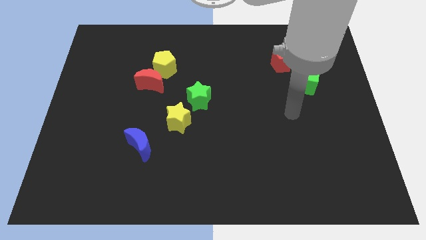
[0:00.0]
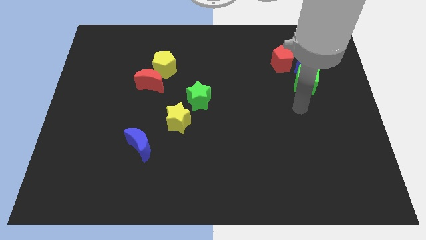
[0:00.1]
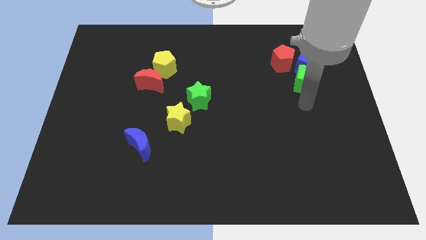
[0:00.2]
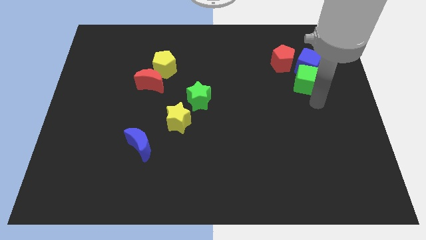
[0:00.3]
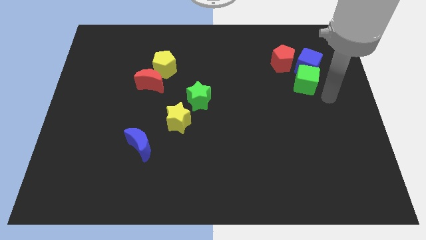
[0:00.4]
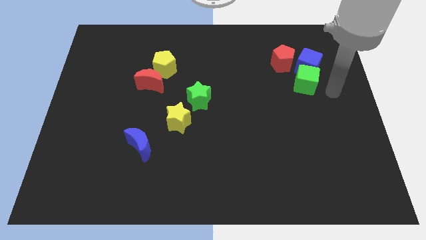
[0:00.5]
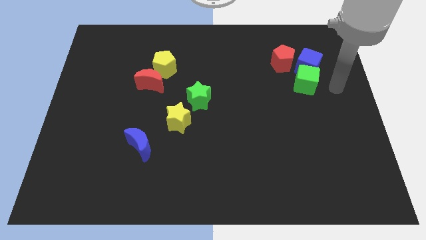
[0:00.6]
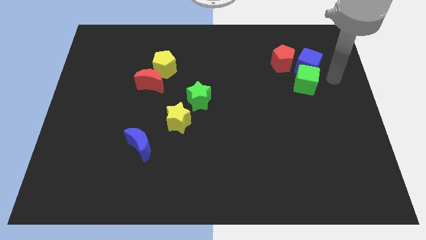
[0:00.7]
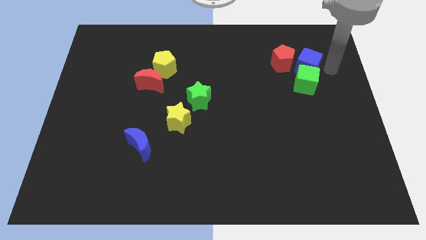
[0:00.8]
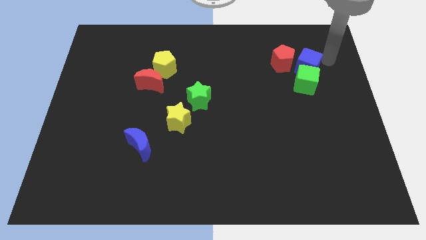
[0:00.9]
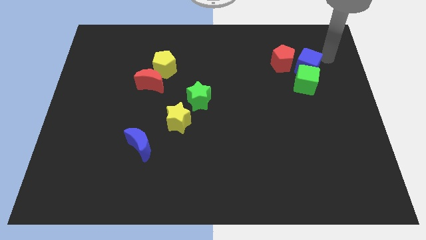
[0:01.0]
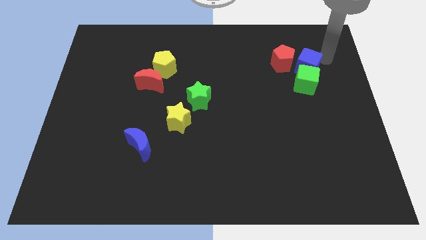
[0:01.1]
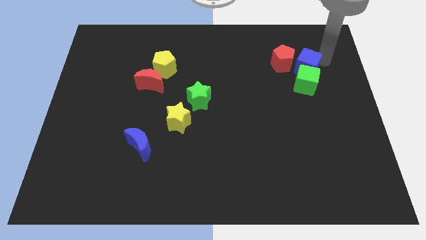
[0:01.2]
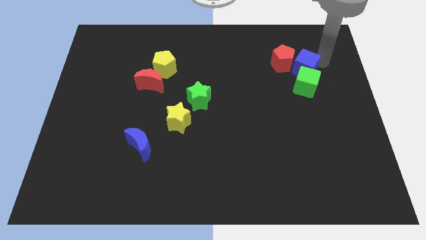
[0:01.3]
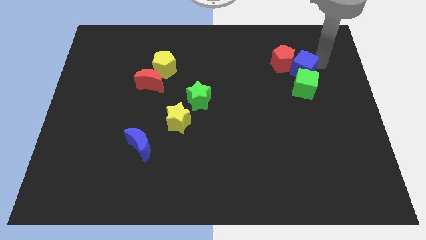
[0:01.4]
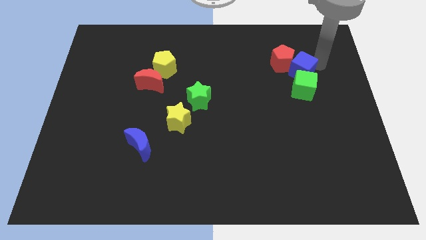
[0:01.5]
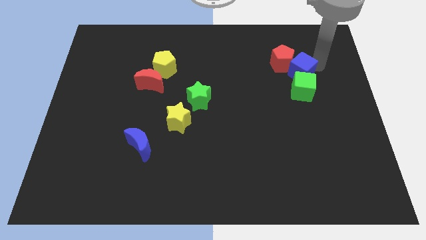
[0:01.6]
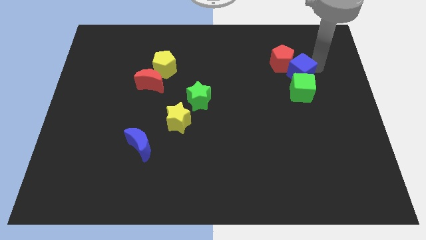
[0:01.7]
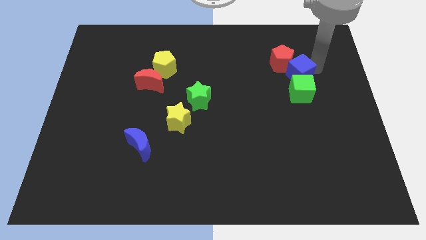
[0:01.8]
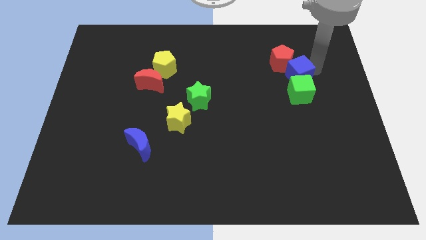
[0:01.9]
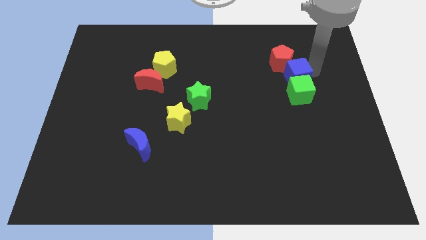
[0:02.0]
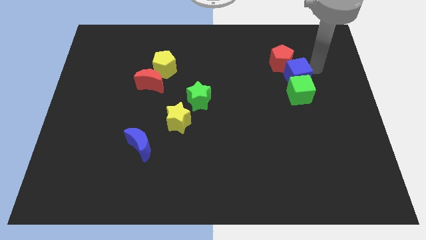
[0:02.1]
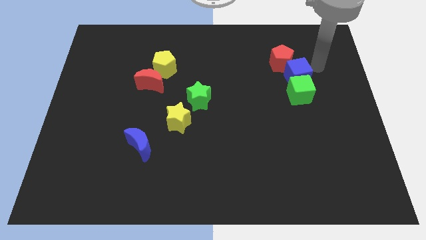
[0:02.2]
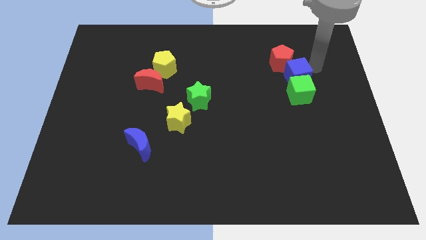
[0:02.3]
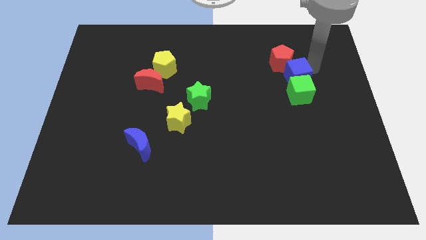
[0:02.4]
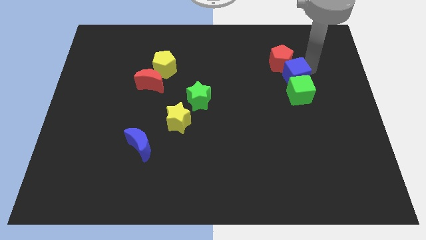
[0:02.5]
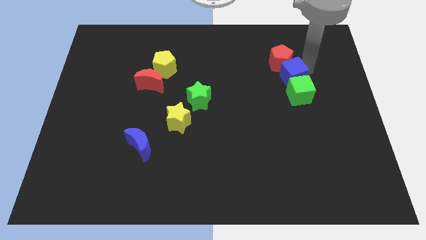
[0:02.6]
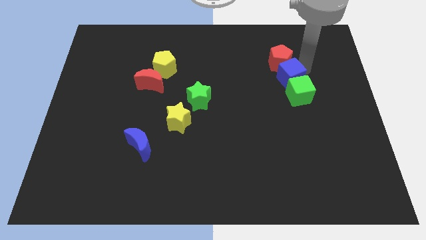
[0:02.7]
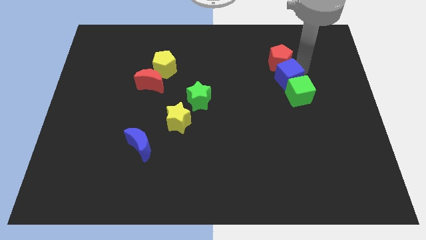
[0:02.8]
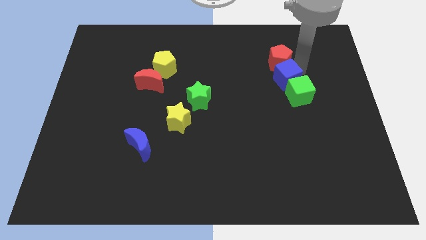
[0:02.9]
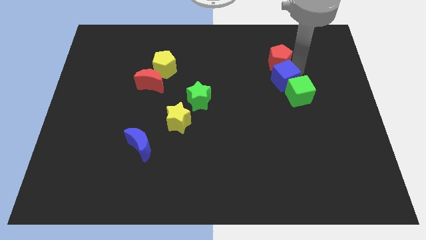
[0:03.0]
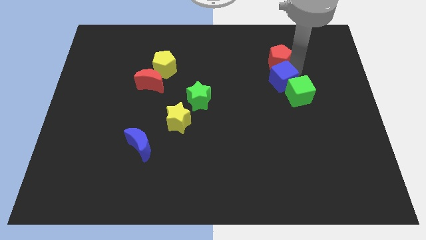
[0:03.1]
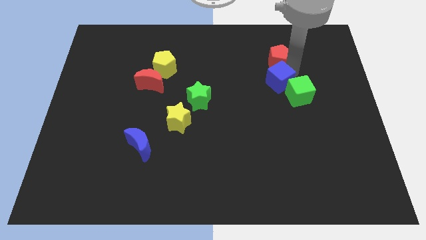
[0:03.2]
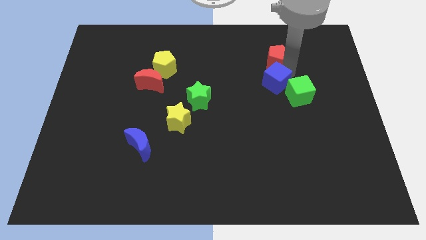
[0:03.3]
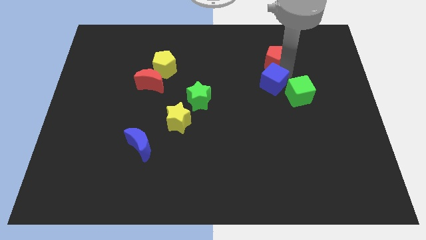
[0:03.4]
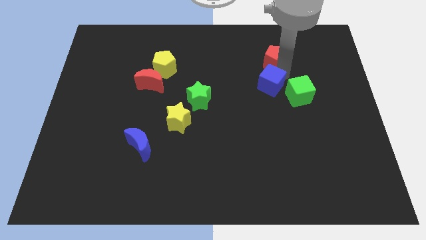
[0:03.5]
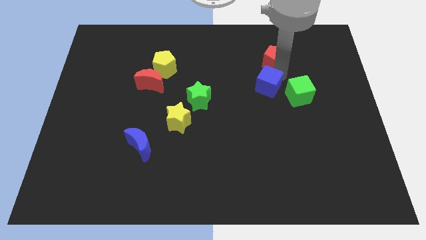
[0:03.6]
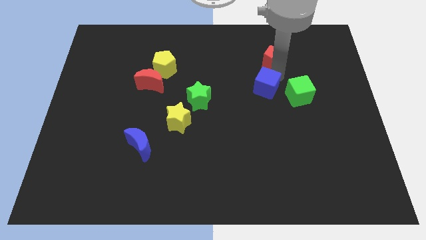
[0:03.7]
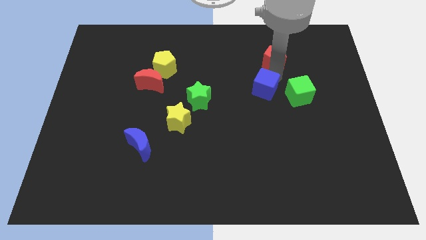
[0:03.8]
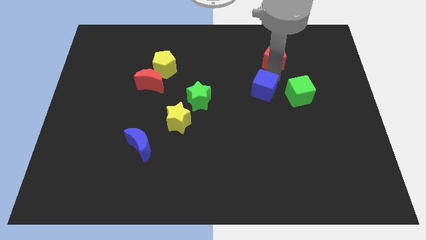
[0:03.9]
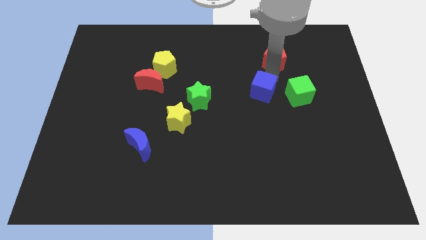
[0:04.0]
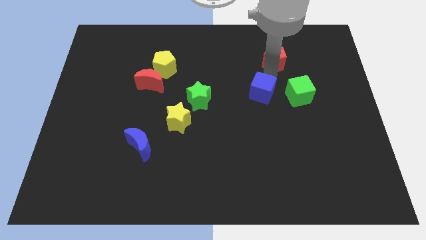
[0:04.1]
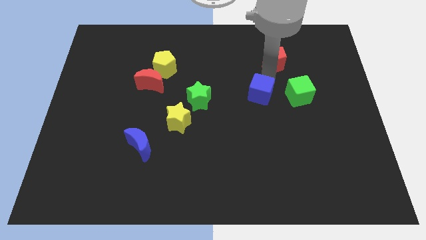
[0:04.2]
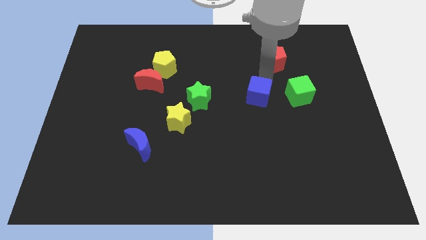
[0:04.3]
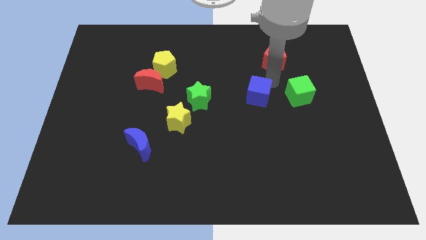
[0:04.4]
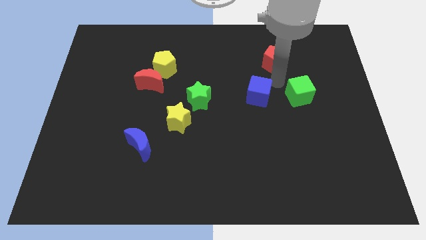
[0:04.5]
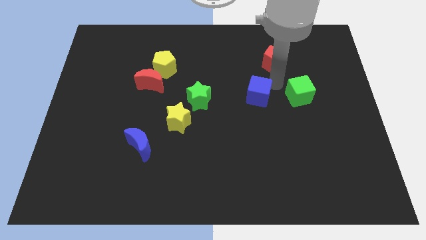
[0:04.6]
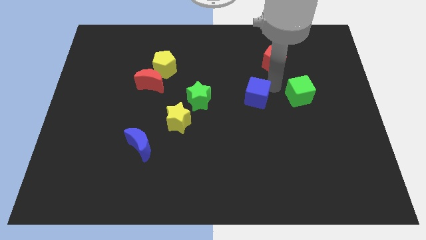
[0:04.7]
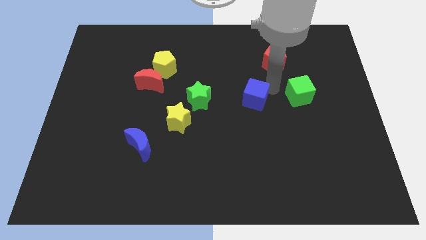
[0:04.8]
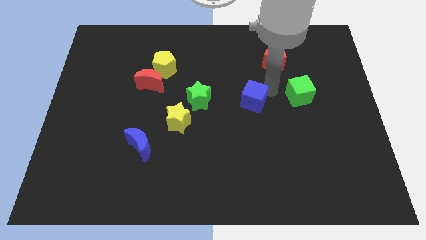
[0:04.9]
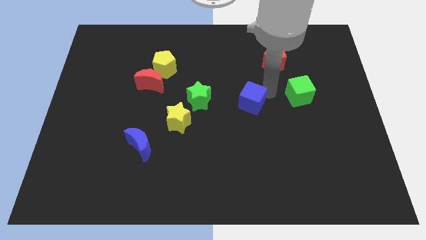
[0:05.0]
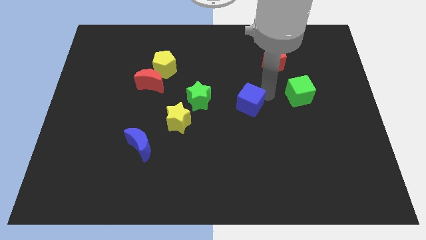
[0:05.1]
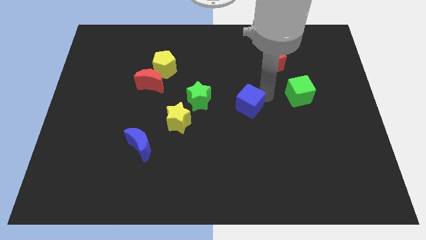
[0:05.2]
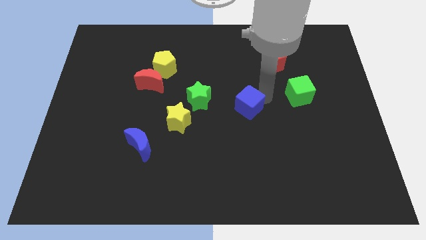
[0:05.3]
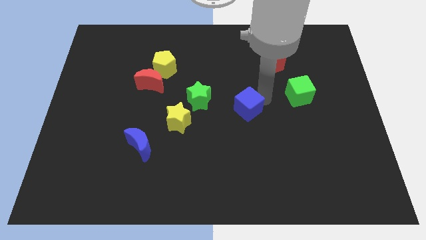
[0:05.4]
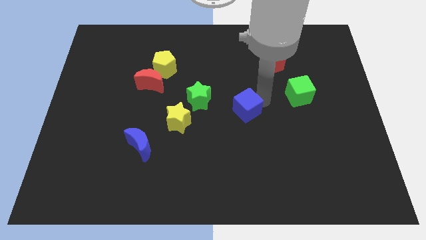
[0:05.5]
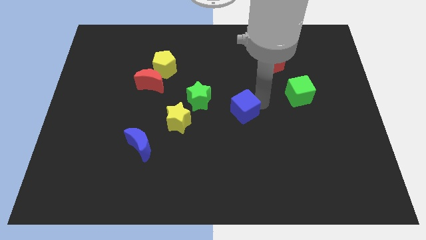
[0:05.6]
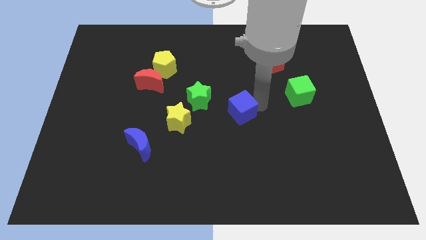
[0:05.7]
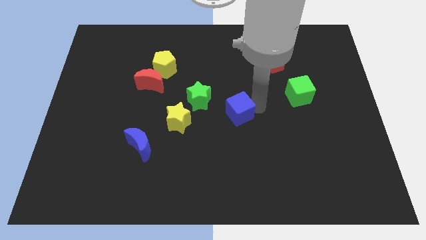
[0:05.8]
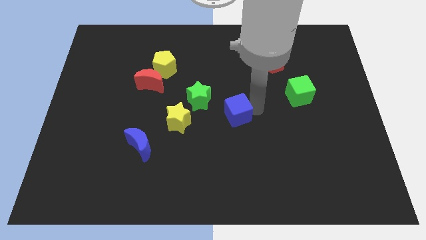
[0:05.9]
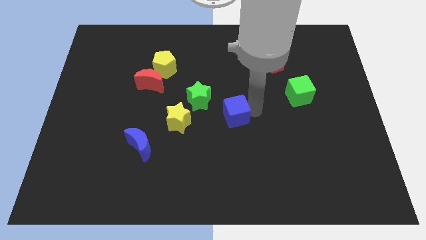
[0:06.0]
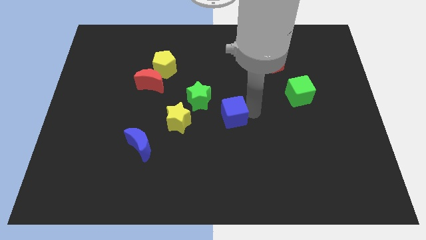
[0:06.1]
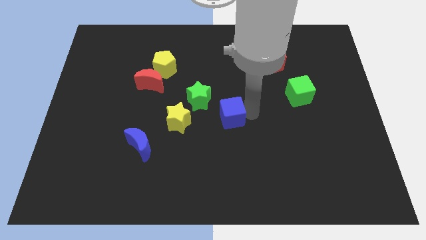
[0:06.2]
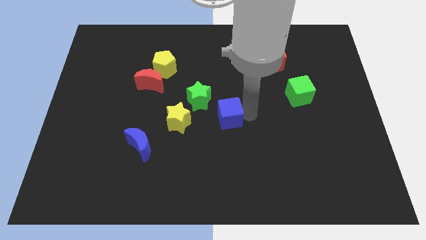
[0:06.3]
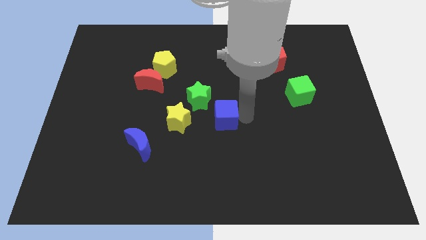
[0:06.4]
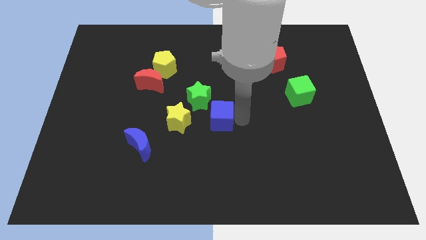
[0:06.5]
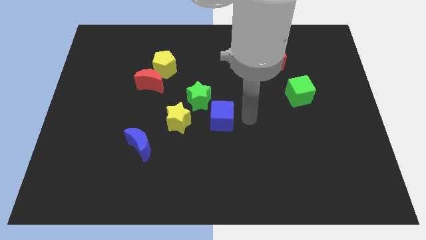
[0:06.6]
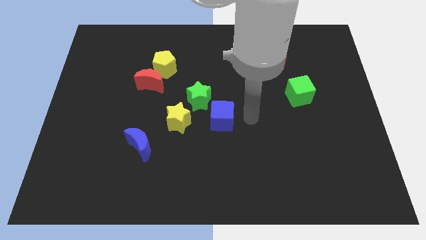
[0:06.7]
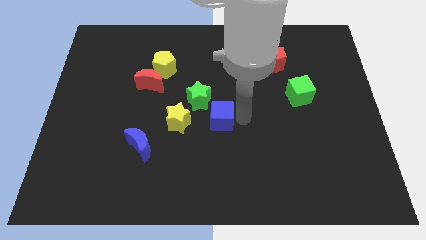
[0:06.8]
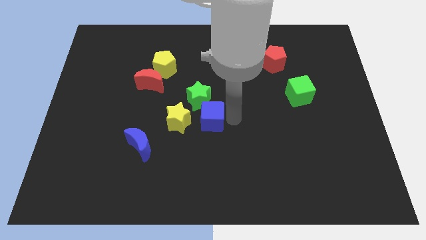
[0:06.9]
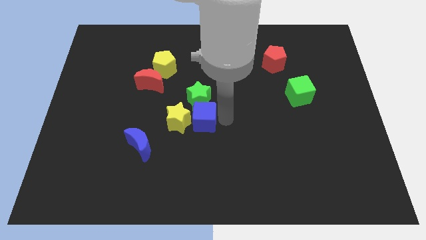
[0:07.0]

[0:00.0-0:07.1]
slide the blue cube close to the yellow star
